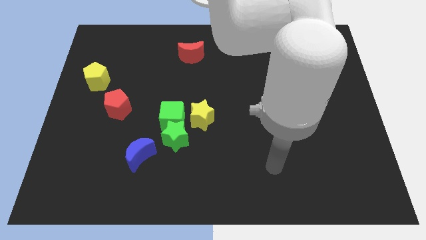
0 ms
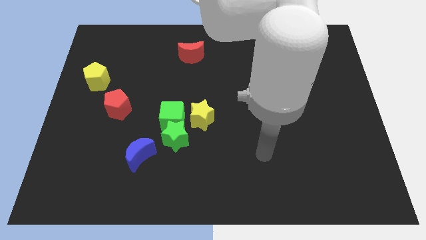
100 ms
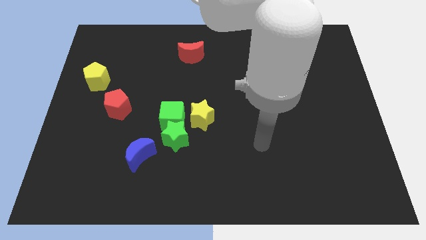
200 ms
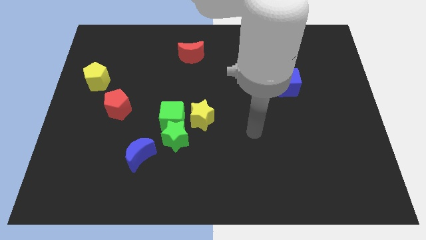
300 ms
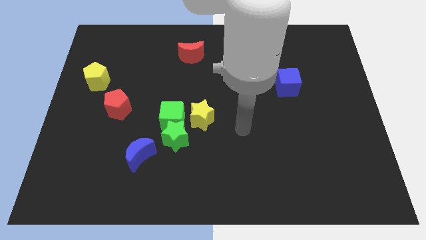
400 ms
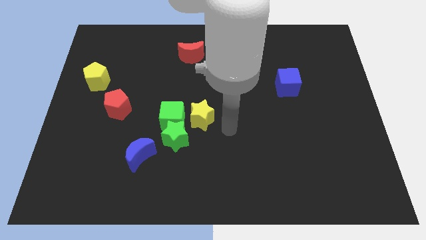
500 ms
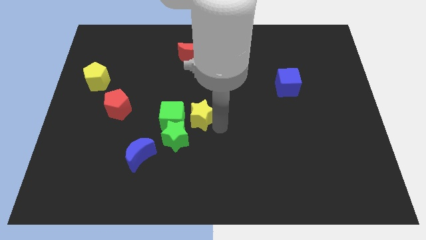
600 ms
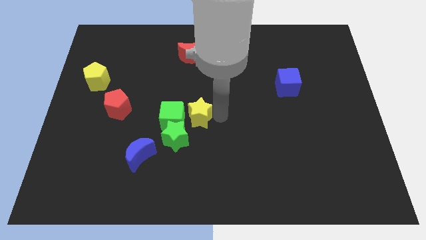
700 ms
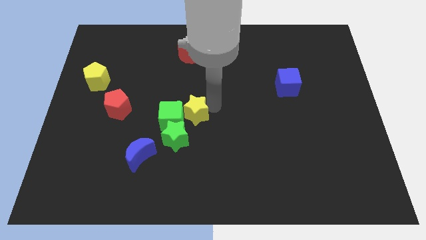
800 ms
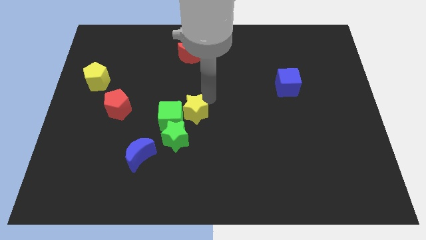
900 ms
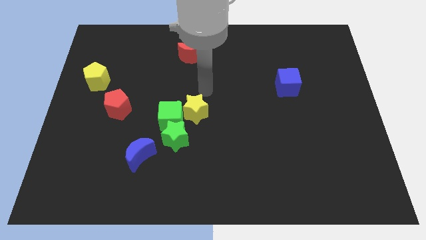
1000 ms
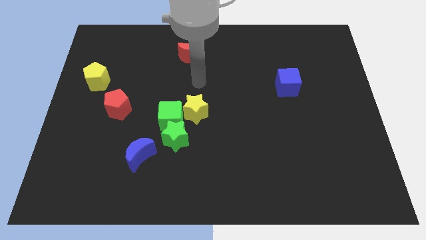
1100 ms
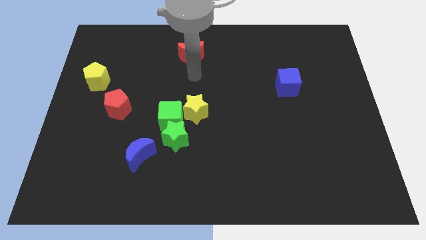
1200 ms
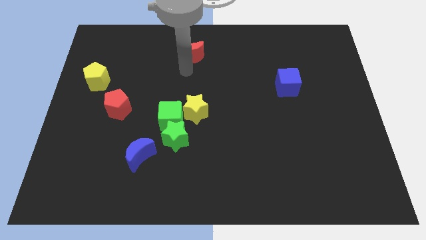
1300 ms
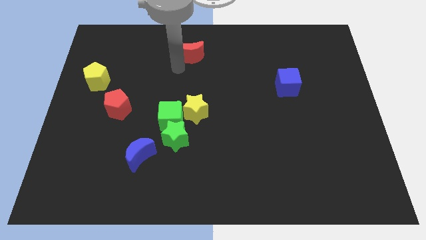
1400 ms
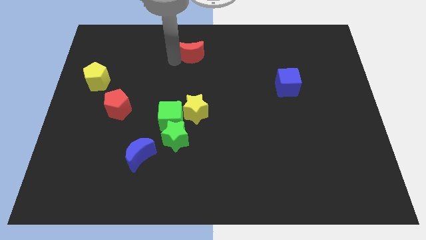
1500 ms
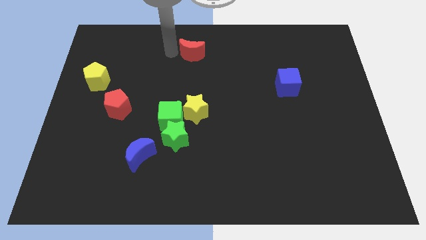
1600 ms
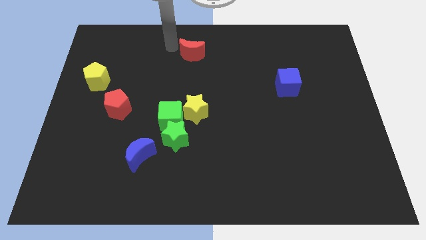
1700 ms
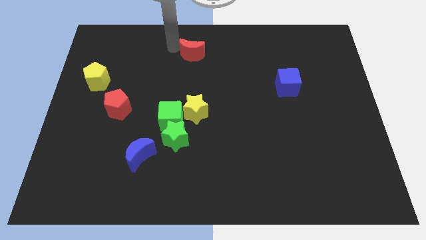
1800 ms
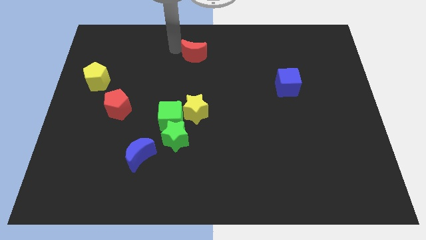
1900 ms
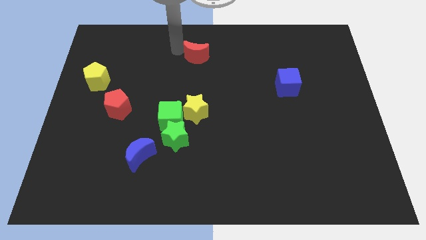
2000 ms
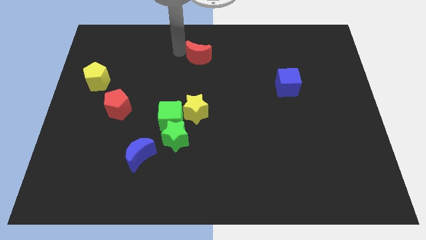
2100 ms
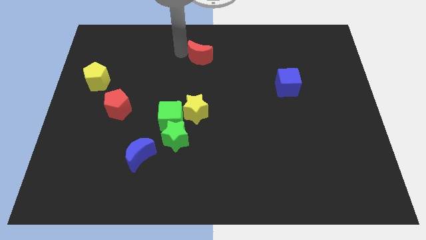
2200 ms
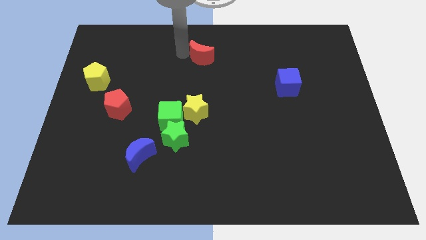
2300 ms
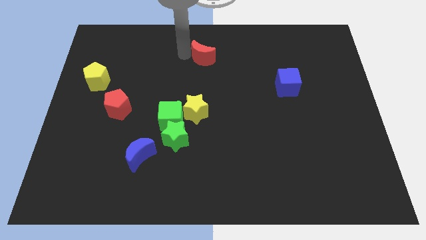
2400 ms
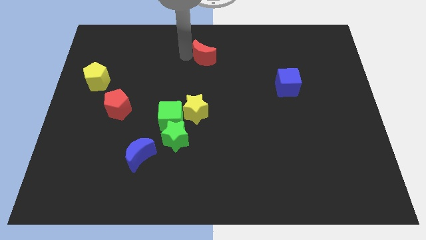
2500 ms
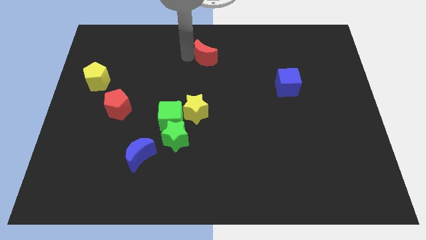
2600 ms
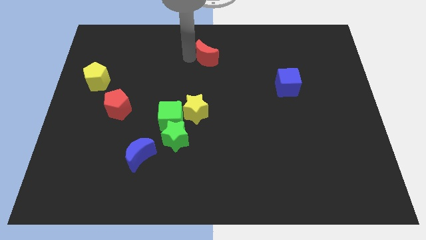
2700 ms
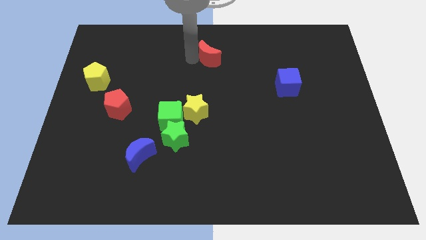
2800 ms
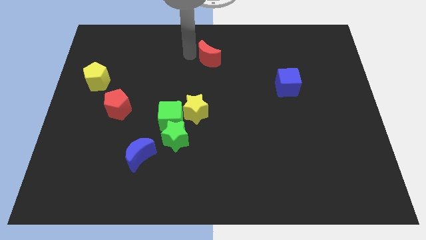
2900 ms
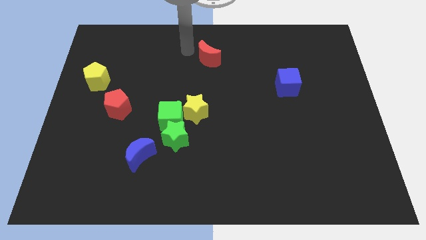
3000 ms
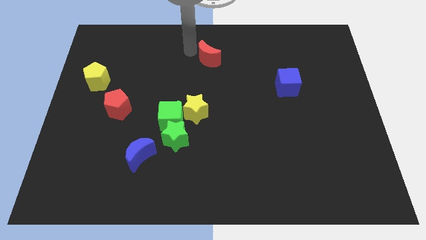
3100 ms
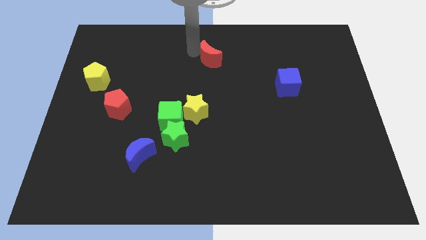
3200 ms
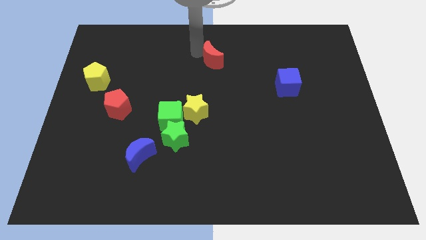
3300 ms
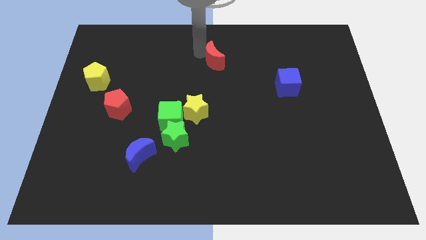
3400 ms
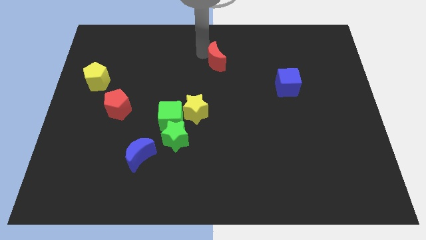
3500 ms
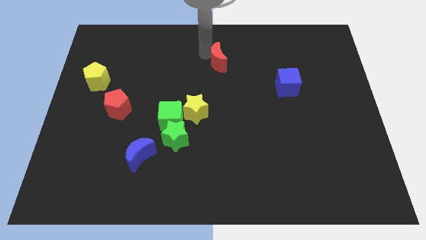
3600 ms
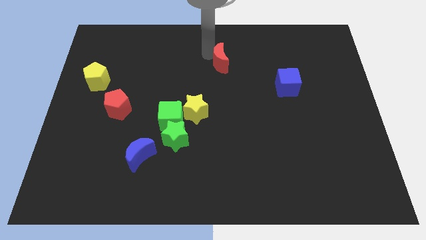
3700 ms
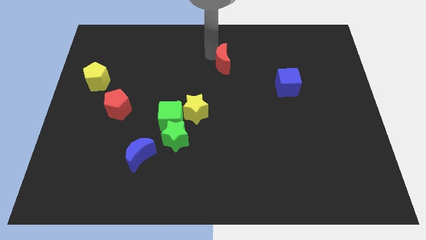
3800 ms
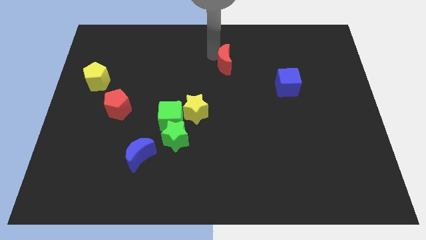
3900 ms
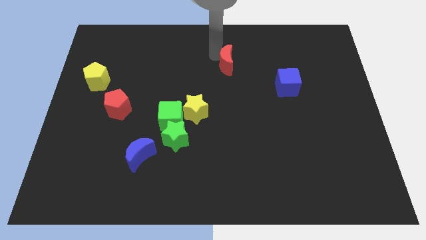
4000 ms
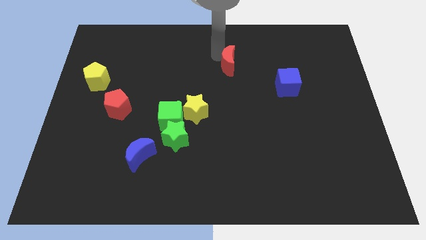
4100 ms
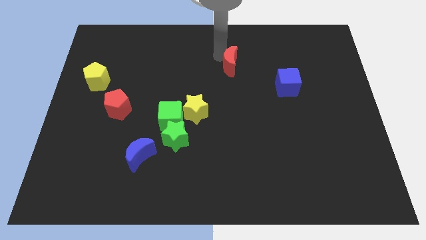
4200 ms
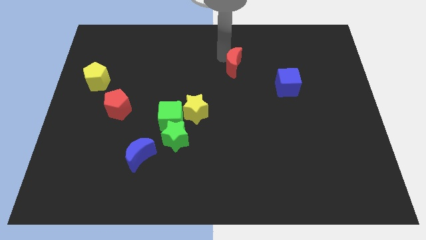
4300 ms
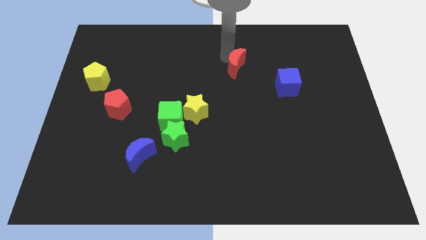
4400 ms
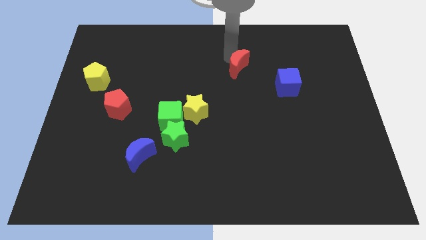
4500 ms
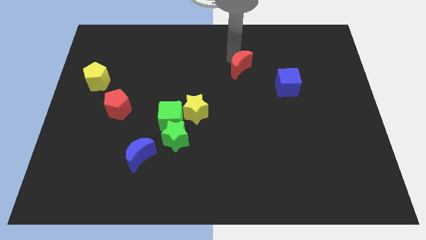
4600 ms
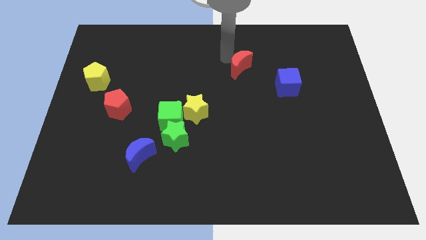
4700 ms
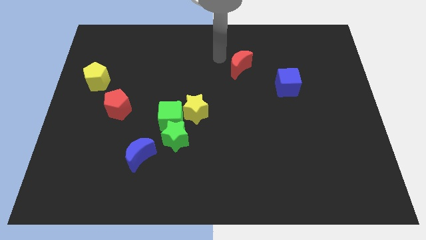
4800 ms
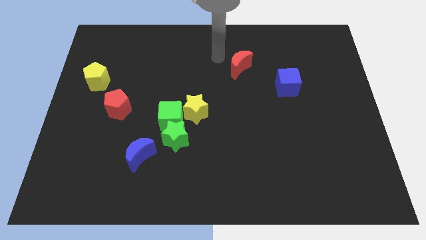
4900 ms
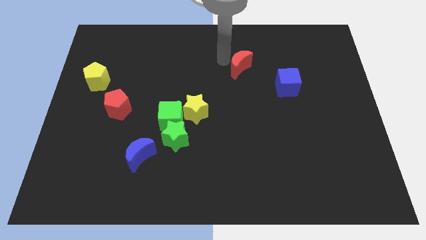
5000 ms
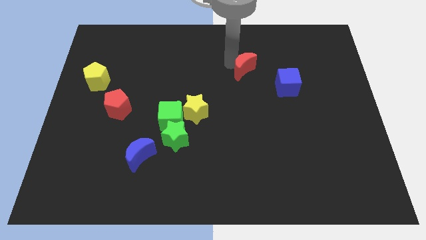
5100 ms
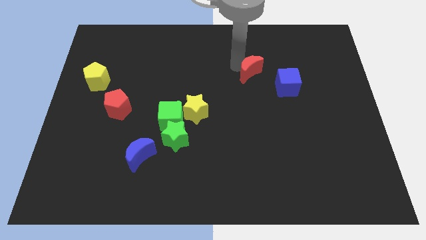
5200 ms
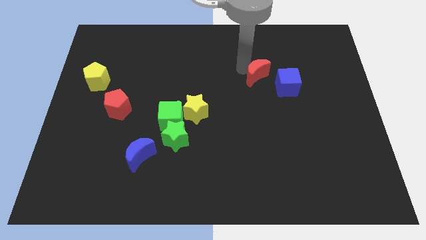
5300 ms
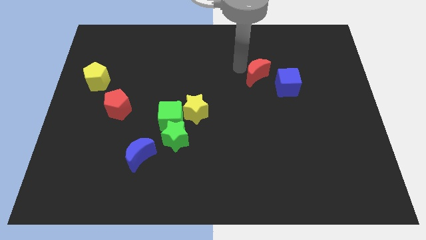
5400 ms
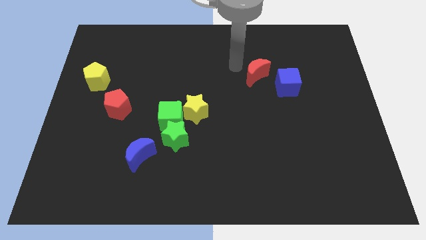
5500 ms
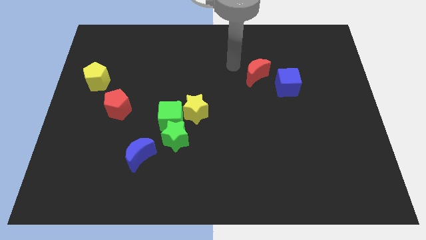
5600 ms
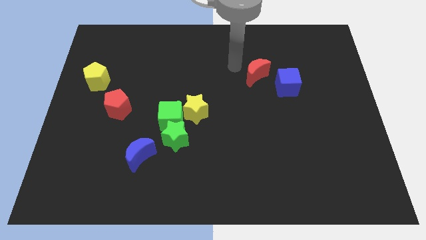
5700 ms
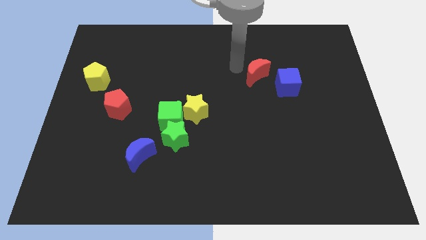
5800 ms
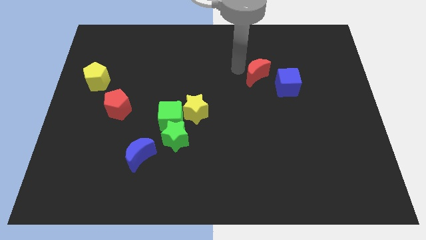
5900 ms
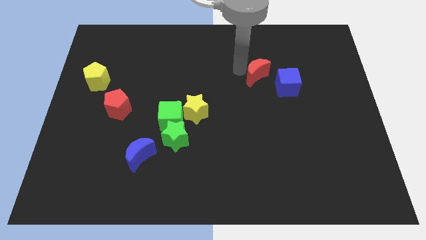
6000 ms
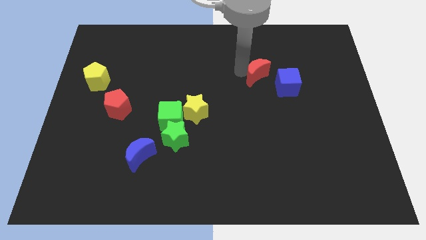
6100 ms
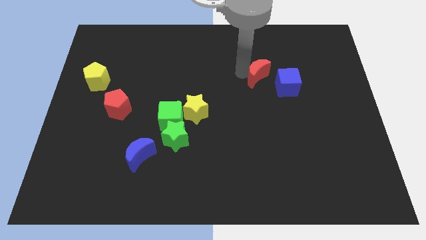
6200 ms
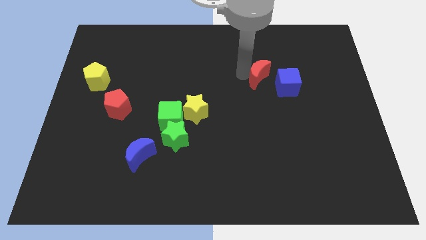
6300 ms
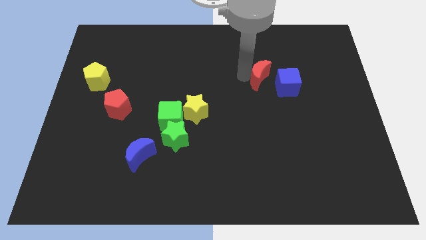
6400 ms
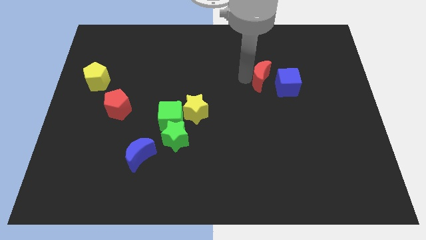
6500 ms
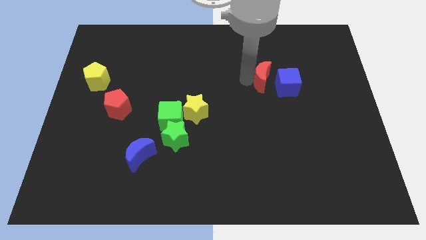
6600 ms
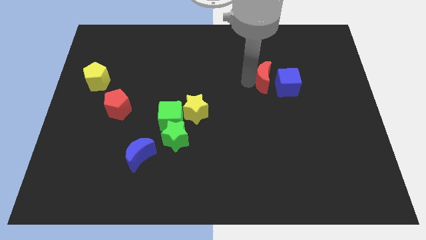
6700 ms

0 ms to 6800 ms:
put the red moon close to the blue cube
